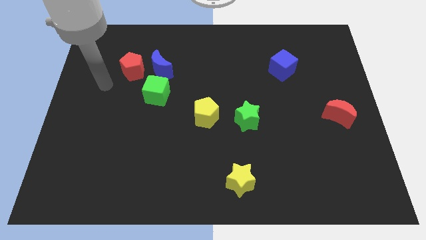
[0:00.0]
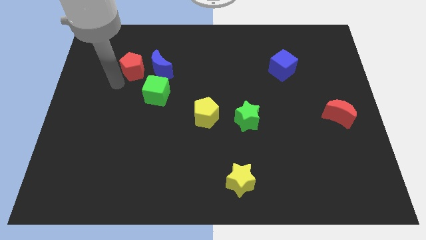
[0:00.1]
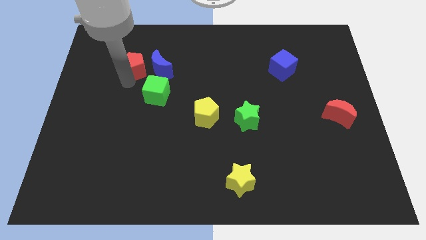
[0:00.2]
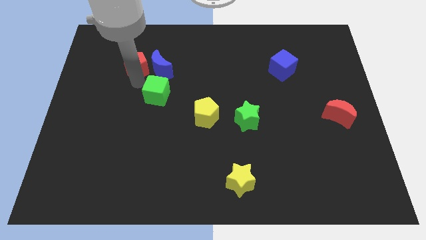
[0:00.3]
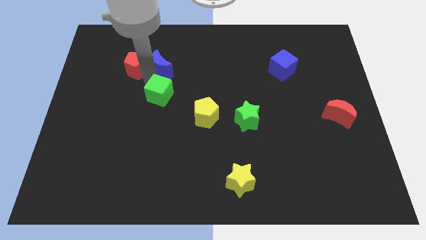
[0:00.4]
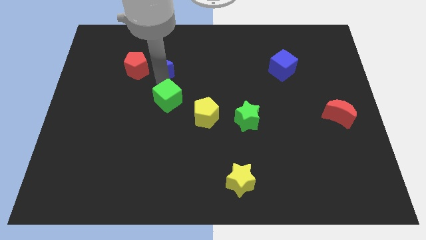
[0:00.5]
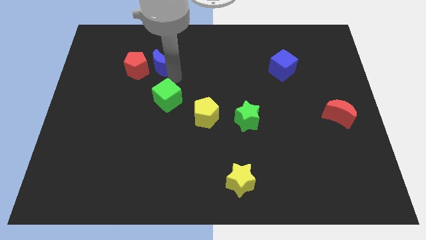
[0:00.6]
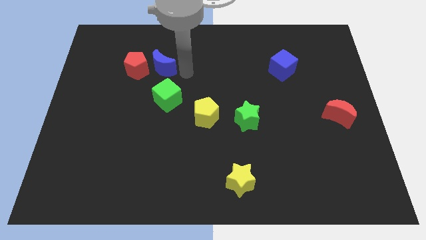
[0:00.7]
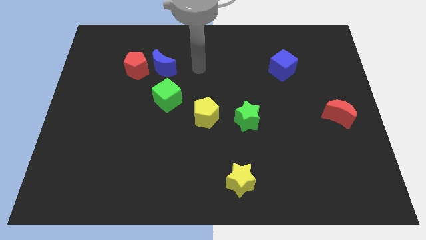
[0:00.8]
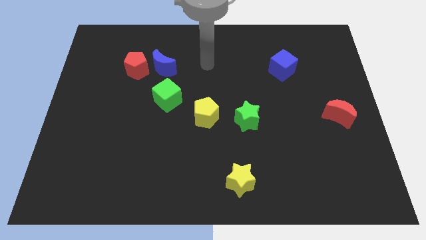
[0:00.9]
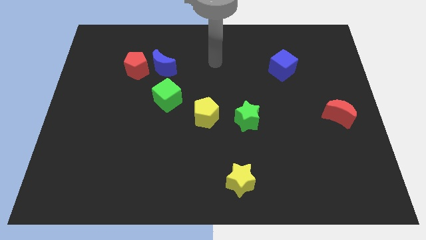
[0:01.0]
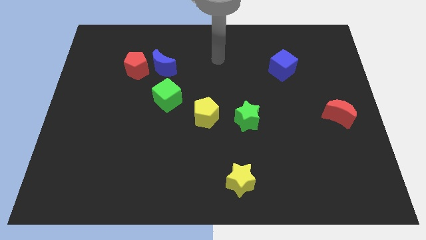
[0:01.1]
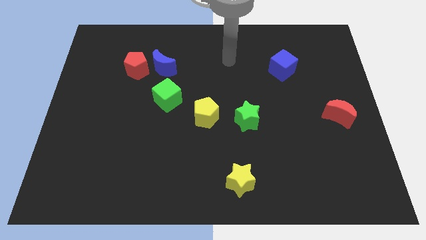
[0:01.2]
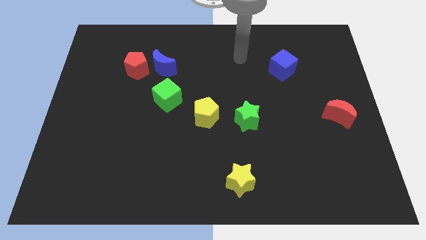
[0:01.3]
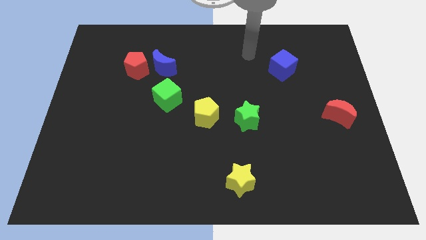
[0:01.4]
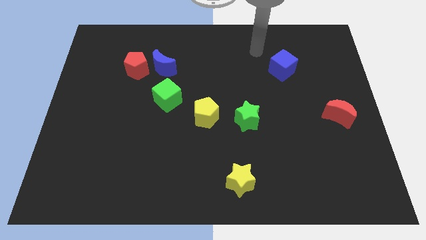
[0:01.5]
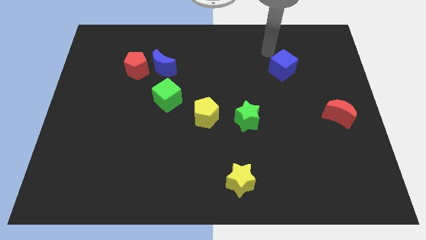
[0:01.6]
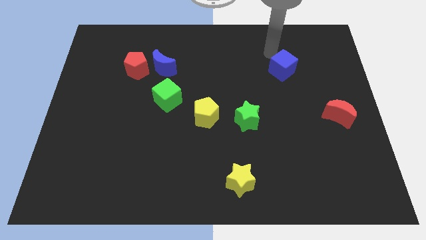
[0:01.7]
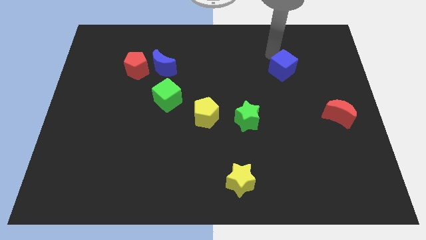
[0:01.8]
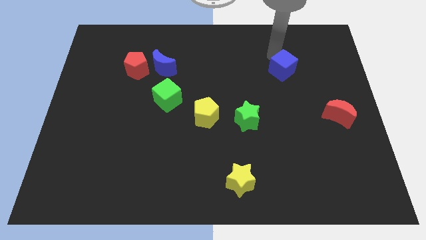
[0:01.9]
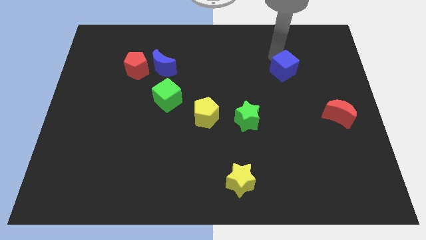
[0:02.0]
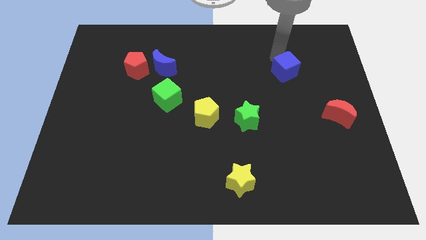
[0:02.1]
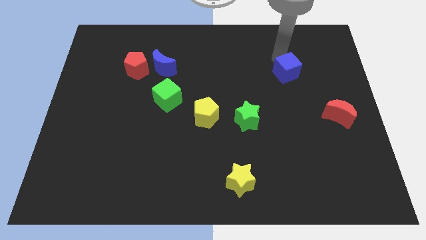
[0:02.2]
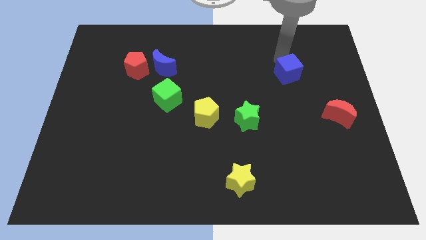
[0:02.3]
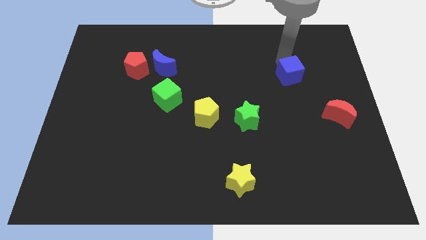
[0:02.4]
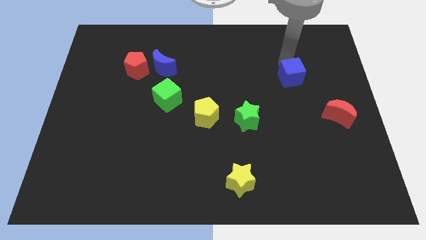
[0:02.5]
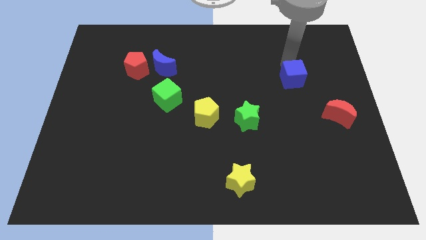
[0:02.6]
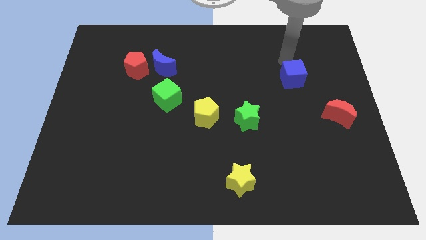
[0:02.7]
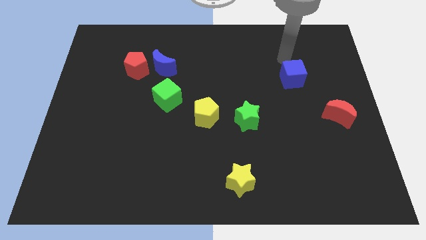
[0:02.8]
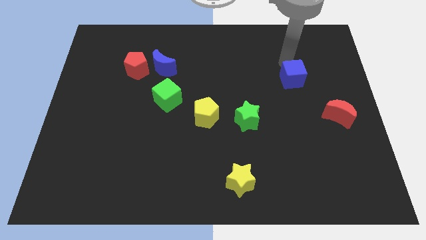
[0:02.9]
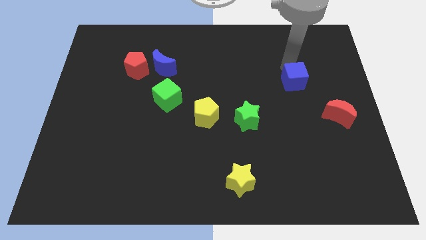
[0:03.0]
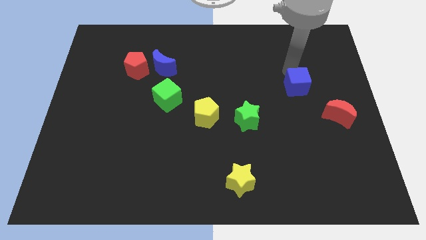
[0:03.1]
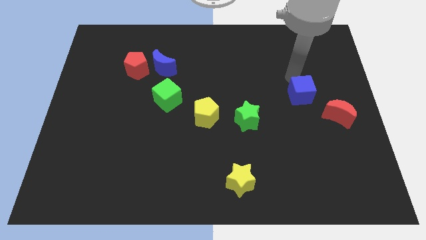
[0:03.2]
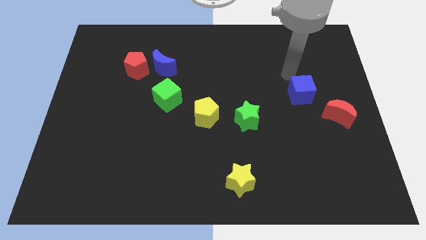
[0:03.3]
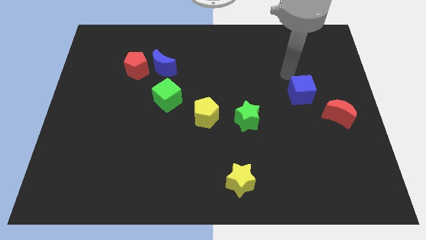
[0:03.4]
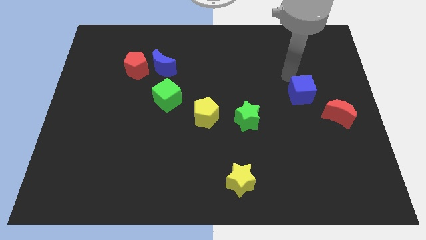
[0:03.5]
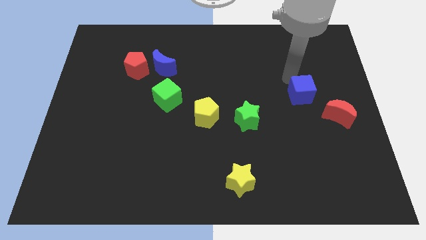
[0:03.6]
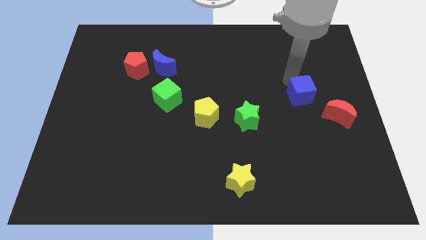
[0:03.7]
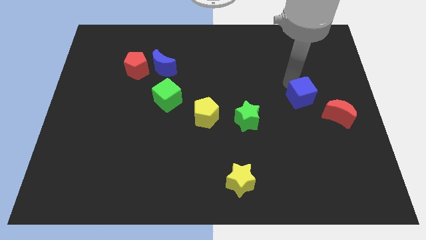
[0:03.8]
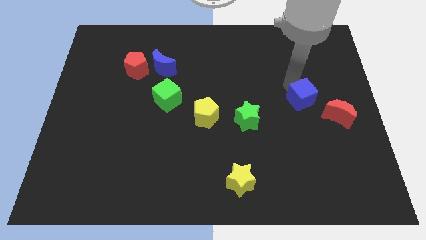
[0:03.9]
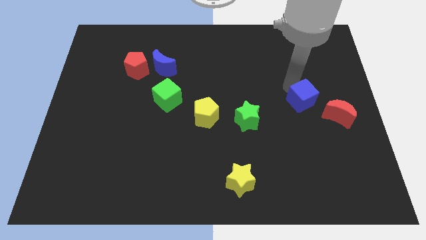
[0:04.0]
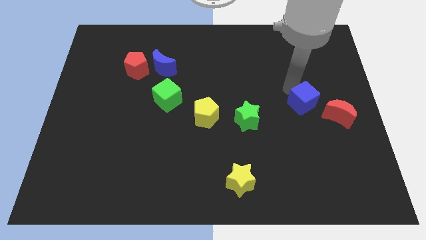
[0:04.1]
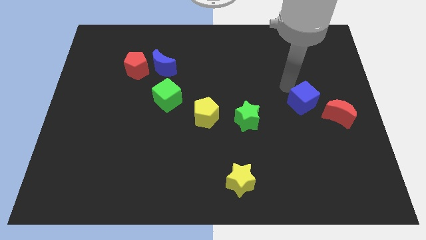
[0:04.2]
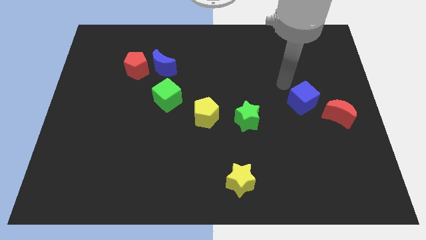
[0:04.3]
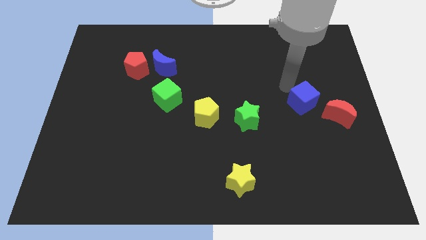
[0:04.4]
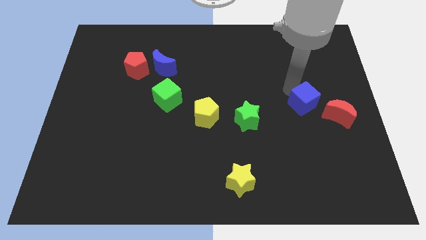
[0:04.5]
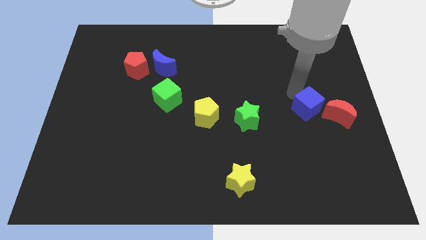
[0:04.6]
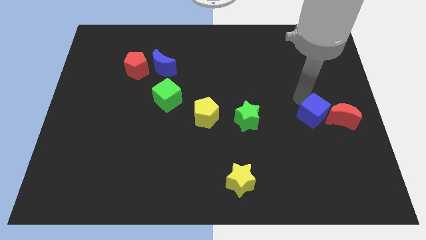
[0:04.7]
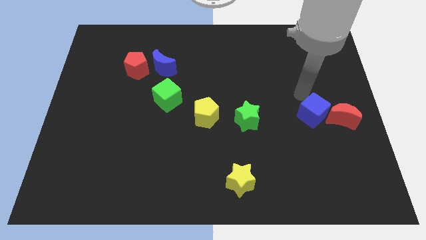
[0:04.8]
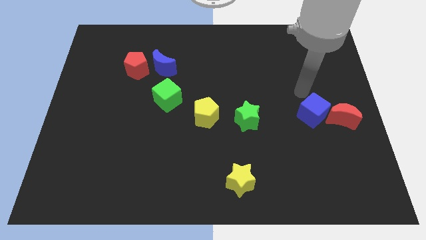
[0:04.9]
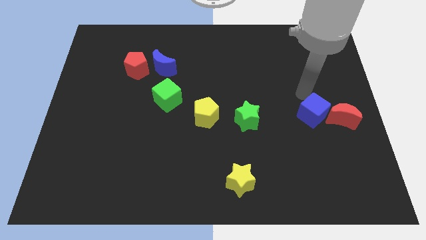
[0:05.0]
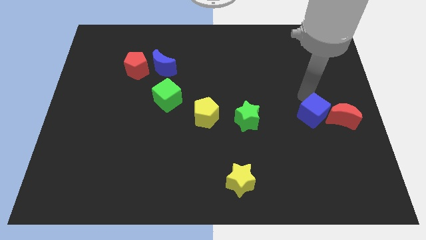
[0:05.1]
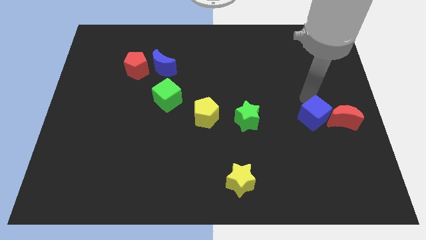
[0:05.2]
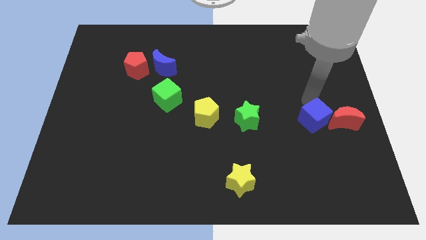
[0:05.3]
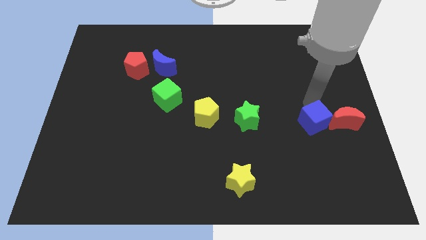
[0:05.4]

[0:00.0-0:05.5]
slide the blue cube to the bottom left of the red moon

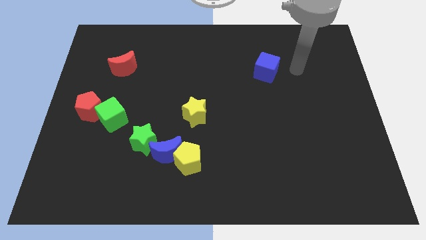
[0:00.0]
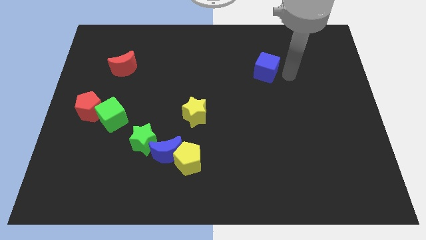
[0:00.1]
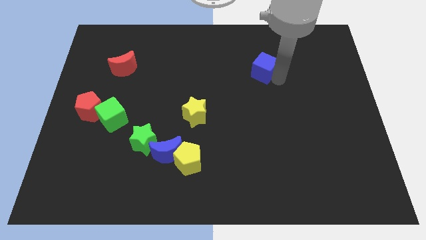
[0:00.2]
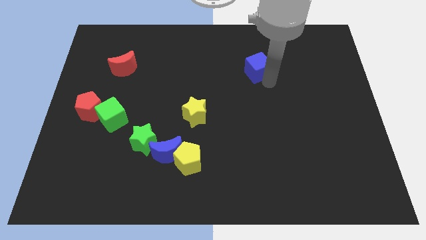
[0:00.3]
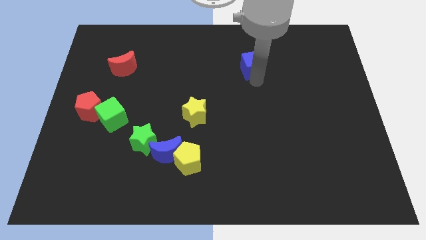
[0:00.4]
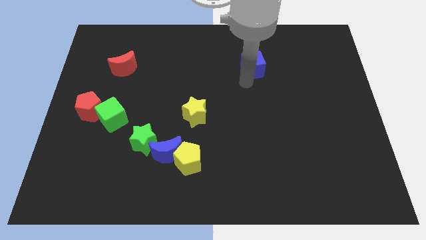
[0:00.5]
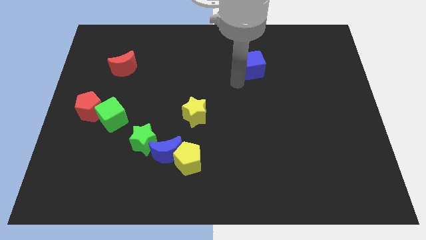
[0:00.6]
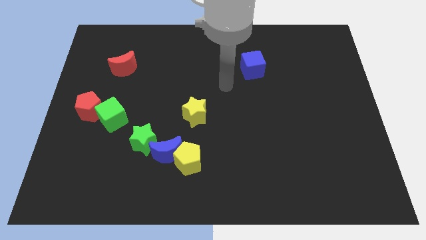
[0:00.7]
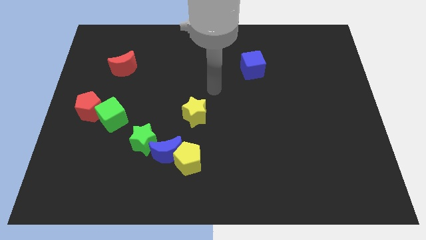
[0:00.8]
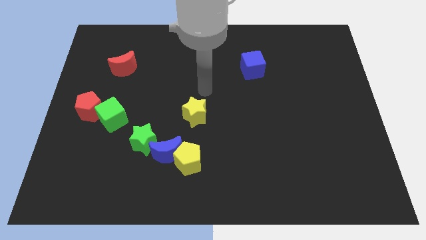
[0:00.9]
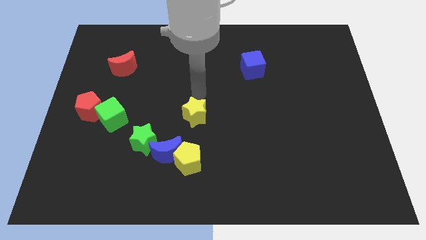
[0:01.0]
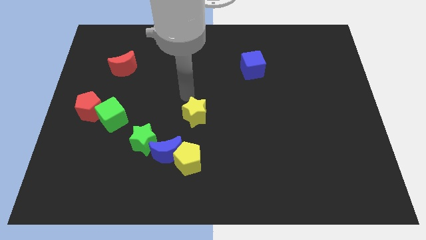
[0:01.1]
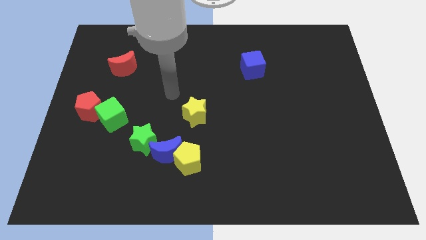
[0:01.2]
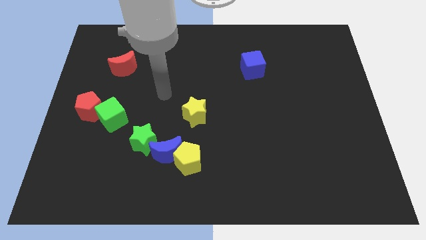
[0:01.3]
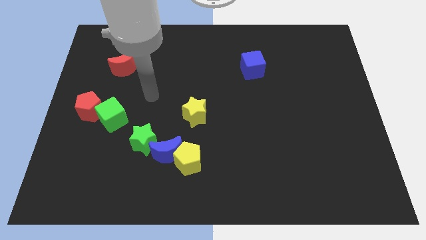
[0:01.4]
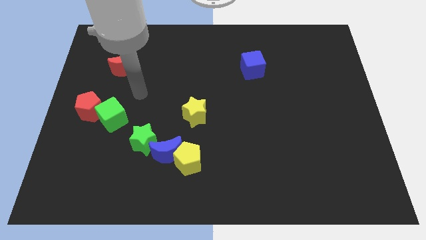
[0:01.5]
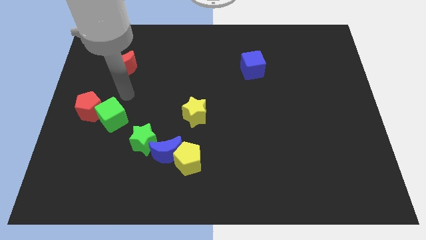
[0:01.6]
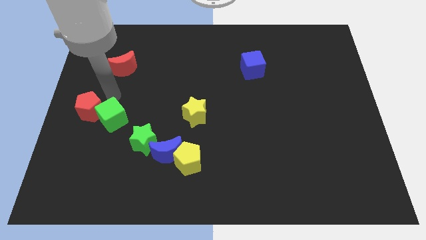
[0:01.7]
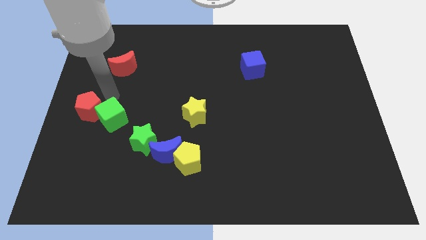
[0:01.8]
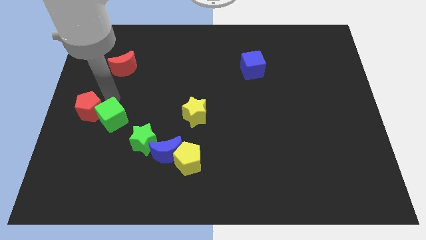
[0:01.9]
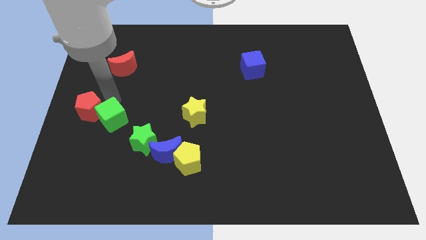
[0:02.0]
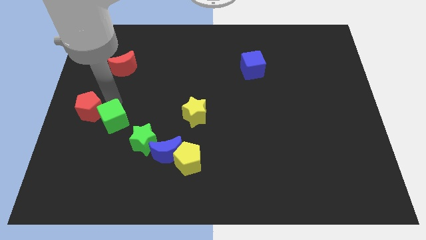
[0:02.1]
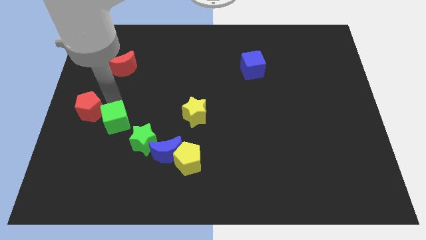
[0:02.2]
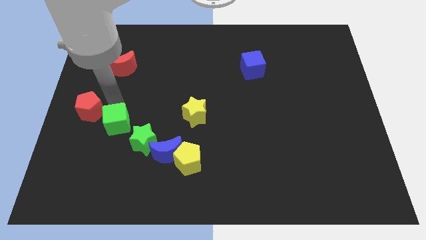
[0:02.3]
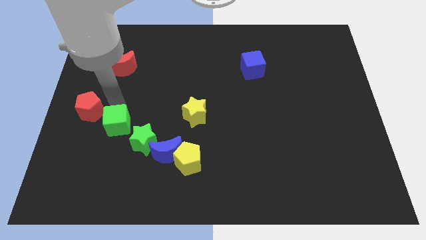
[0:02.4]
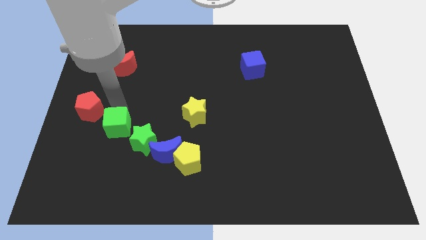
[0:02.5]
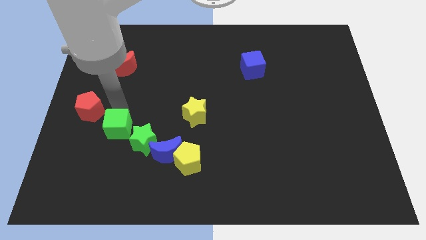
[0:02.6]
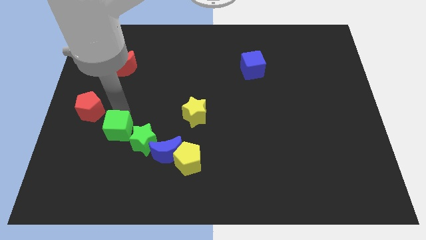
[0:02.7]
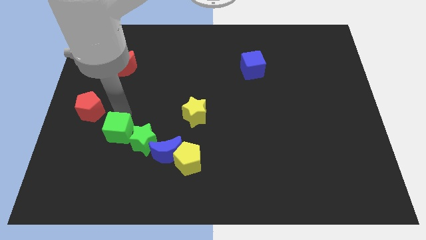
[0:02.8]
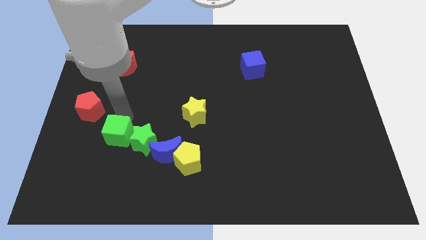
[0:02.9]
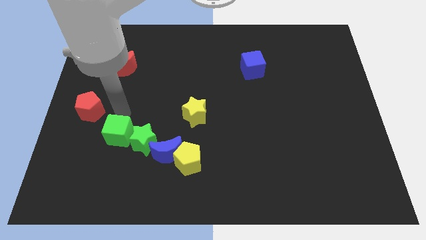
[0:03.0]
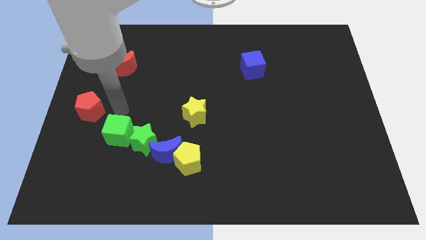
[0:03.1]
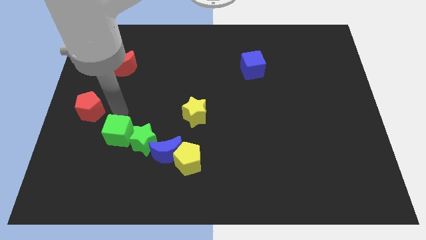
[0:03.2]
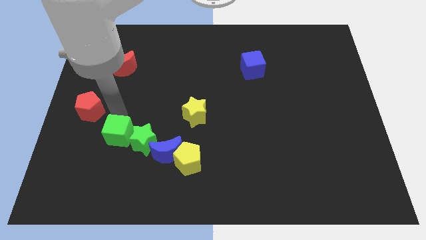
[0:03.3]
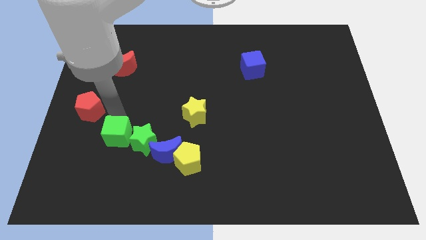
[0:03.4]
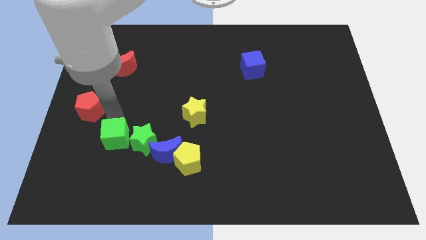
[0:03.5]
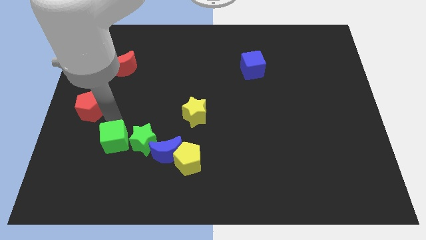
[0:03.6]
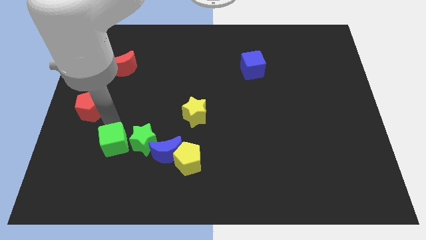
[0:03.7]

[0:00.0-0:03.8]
push the green cube diagonally down and to the left of the green star
